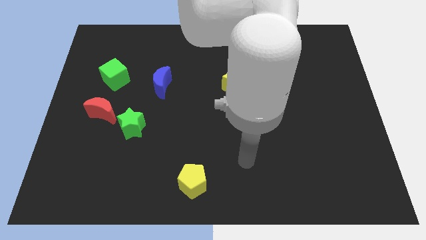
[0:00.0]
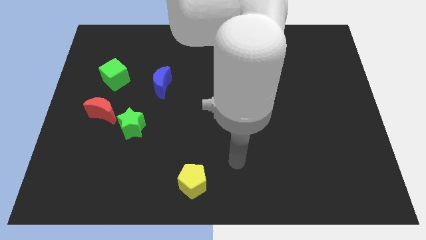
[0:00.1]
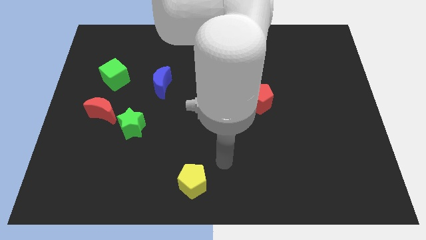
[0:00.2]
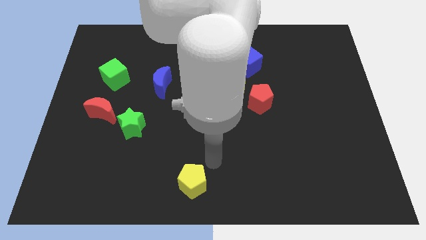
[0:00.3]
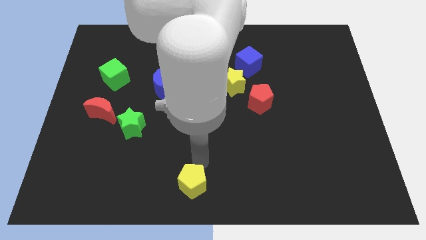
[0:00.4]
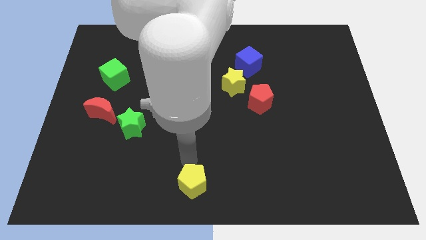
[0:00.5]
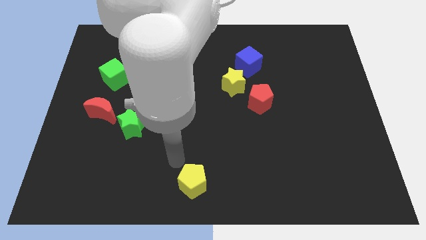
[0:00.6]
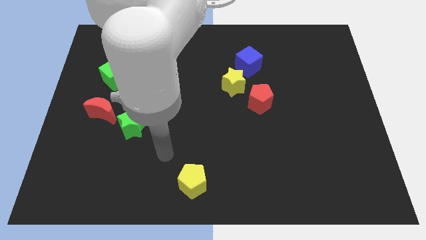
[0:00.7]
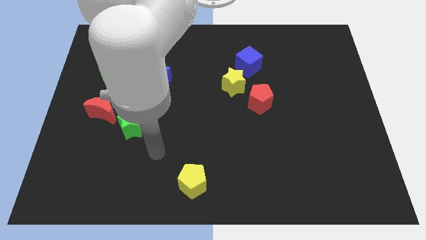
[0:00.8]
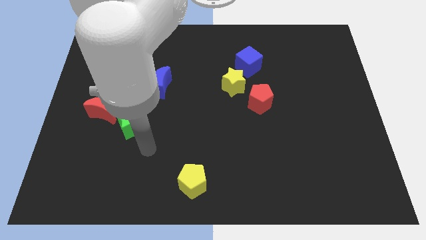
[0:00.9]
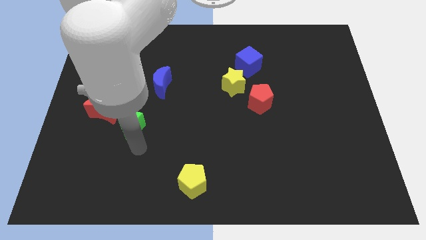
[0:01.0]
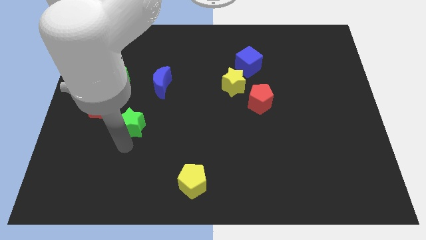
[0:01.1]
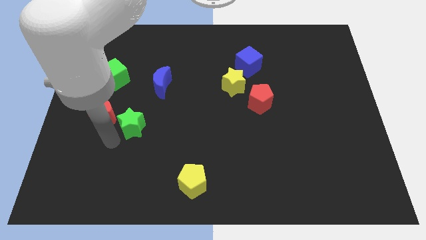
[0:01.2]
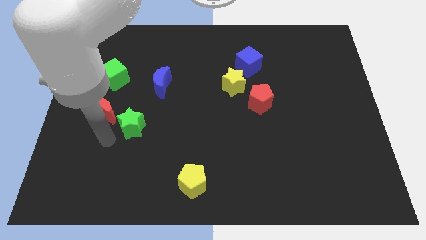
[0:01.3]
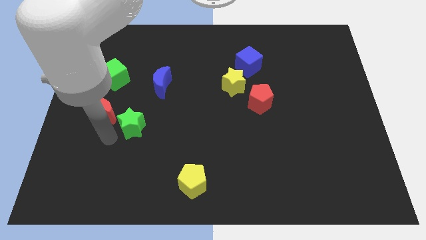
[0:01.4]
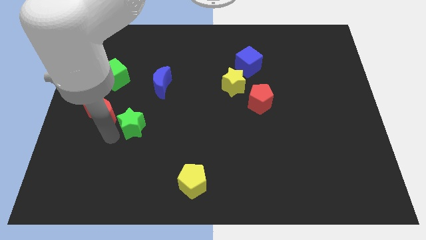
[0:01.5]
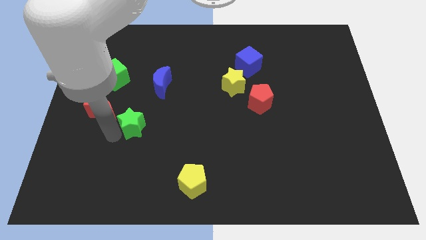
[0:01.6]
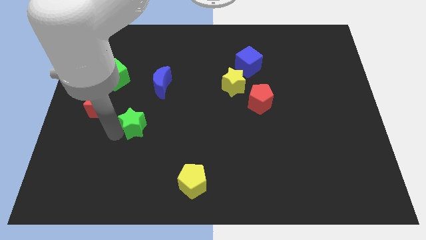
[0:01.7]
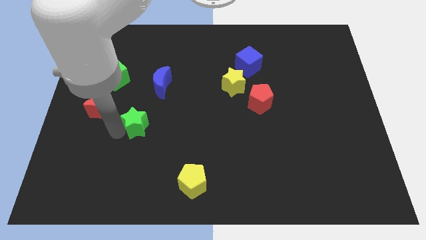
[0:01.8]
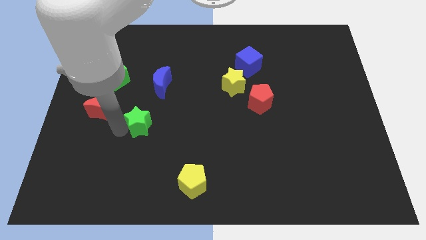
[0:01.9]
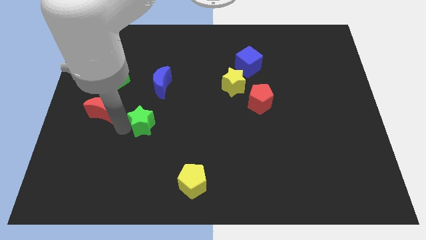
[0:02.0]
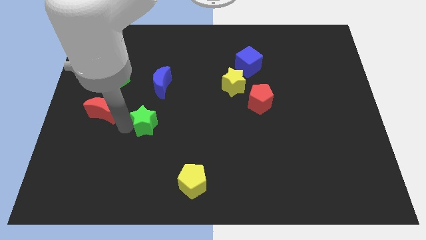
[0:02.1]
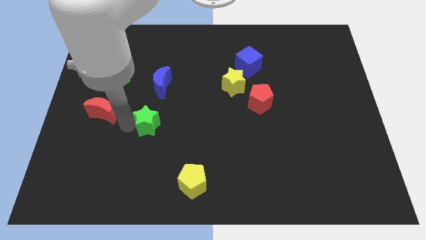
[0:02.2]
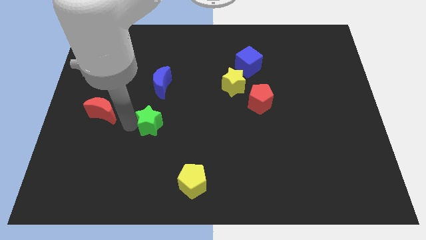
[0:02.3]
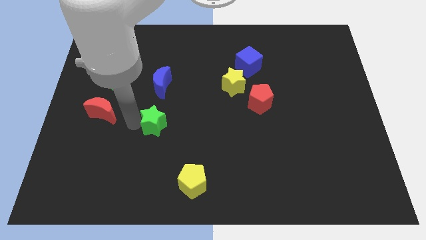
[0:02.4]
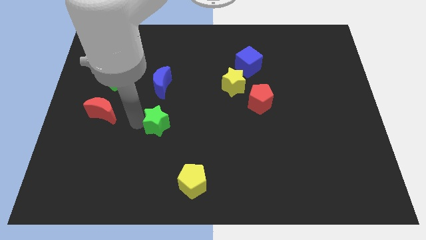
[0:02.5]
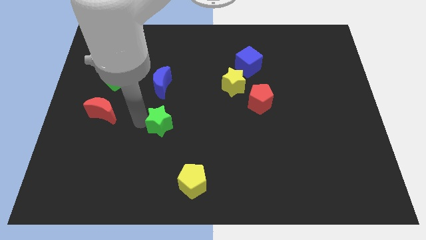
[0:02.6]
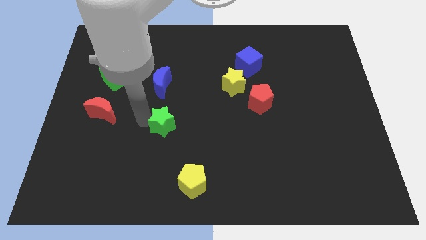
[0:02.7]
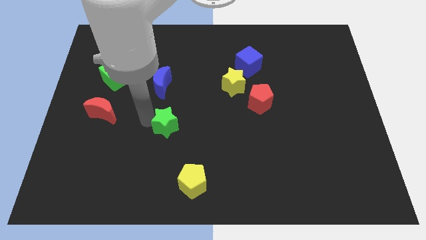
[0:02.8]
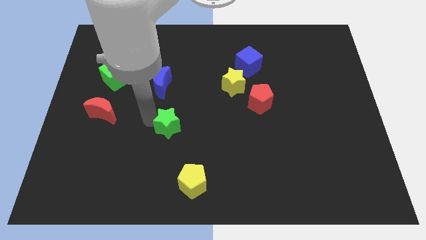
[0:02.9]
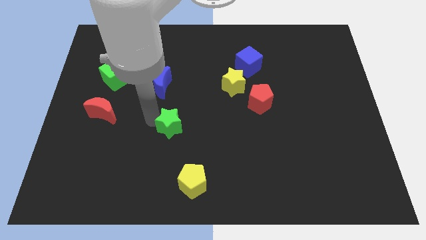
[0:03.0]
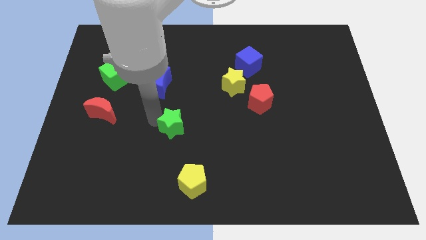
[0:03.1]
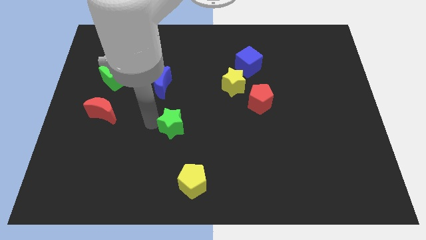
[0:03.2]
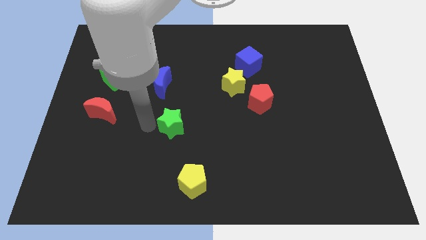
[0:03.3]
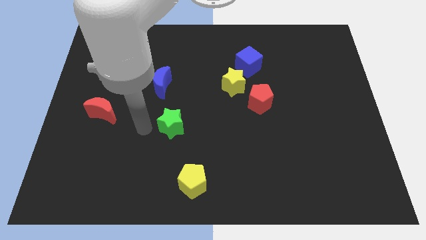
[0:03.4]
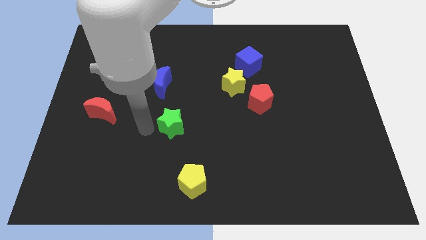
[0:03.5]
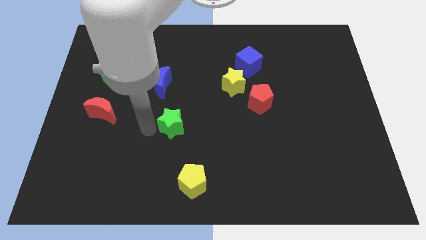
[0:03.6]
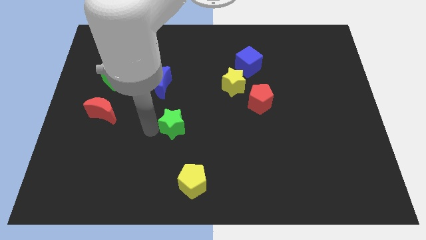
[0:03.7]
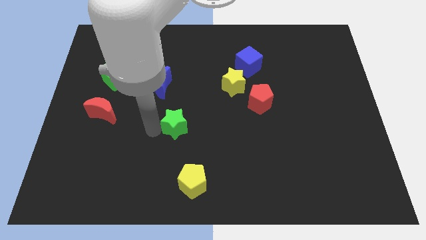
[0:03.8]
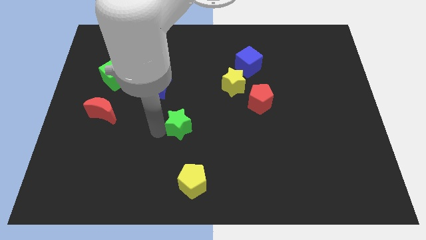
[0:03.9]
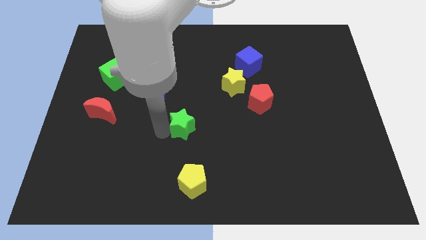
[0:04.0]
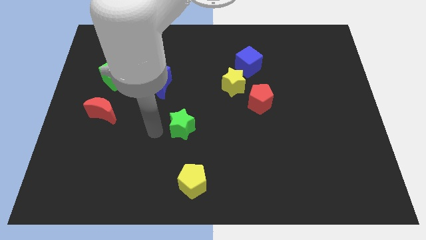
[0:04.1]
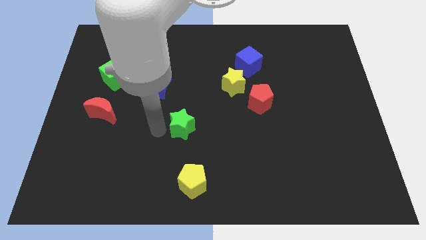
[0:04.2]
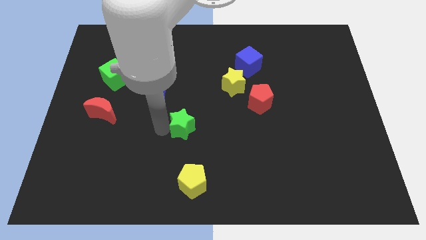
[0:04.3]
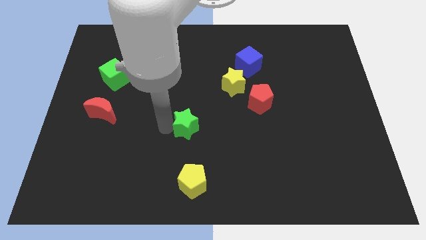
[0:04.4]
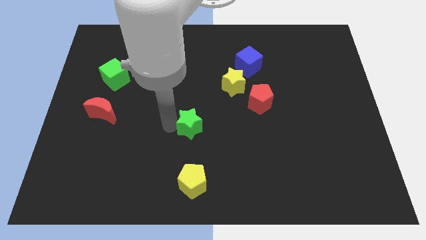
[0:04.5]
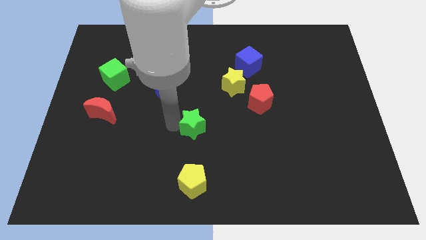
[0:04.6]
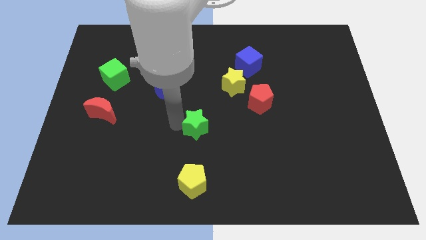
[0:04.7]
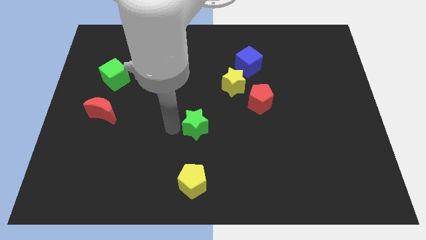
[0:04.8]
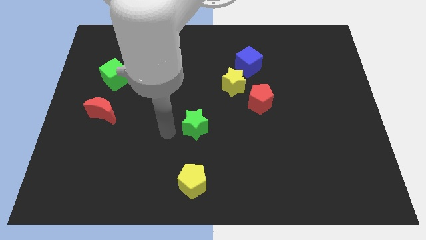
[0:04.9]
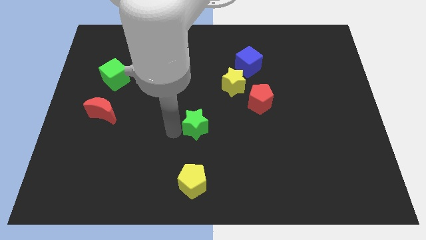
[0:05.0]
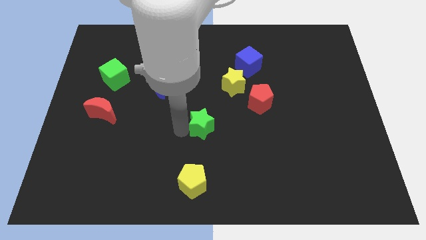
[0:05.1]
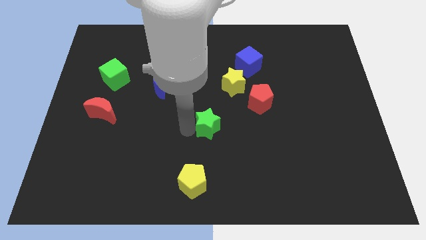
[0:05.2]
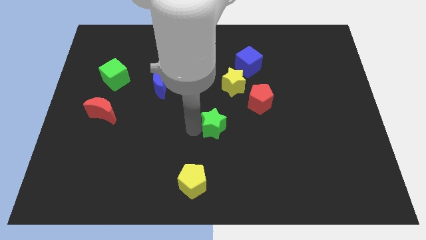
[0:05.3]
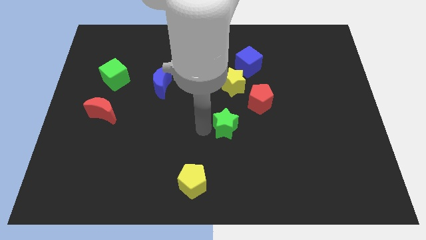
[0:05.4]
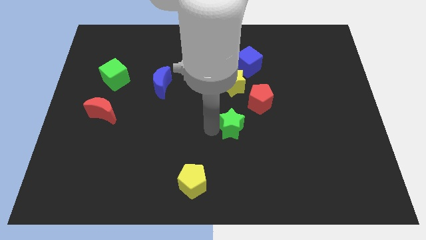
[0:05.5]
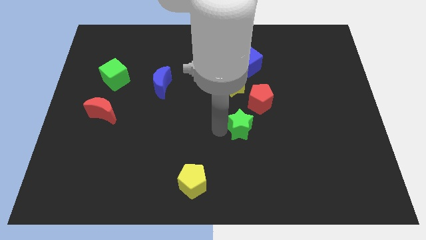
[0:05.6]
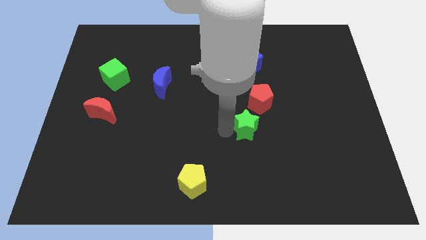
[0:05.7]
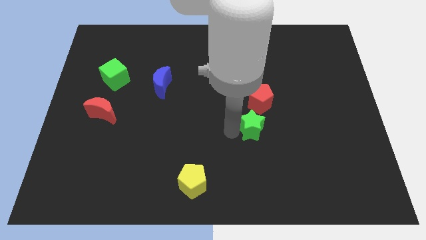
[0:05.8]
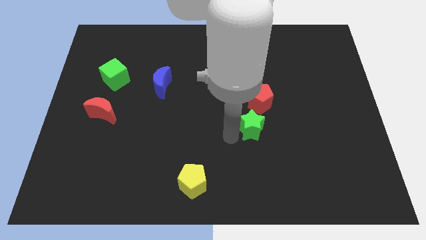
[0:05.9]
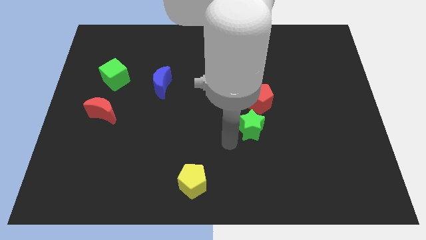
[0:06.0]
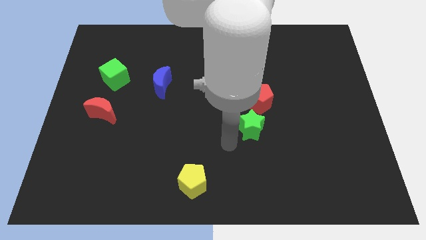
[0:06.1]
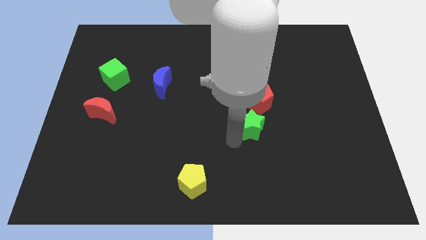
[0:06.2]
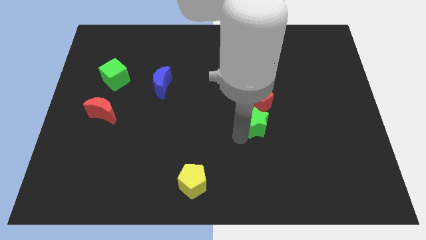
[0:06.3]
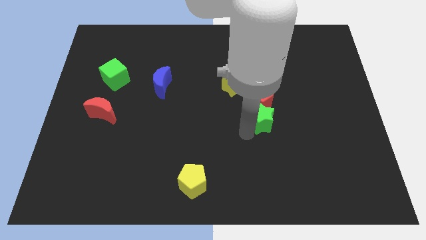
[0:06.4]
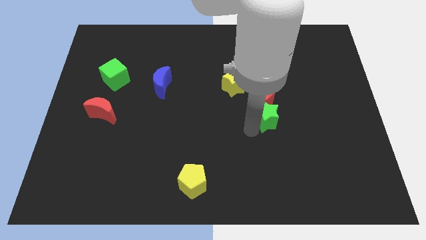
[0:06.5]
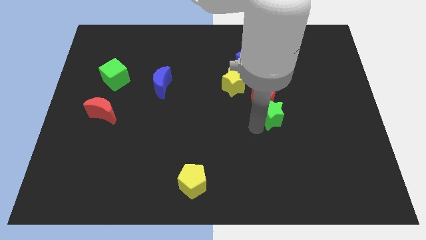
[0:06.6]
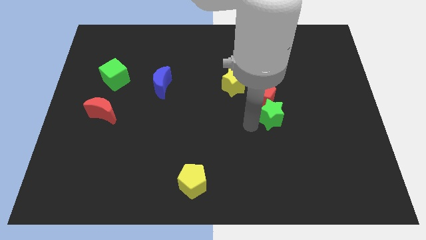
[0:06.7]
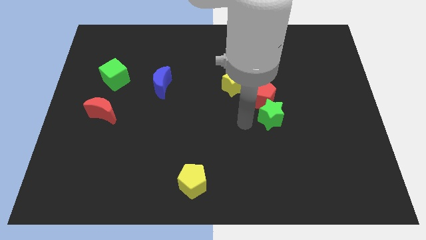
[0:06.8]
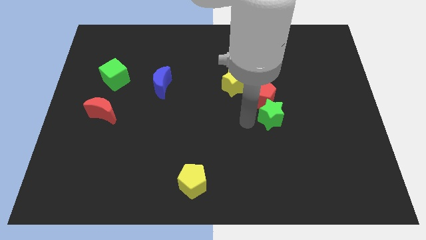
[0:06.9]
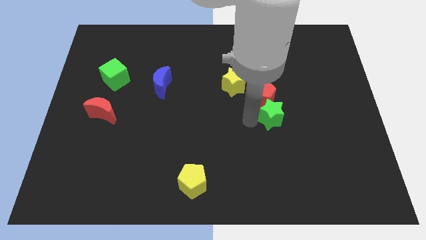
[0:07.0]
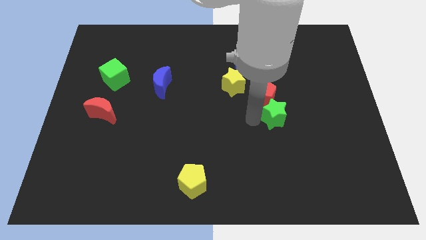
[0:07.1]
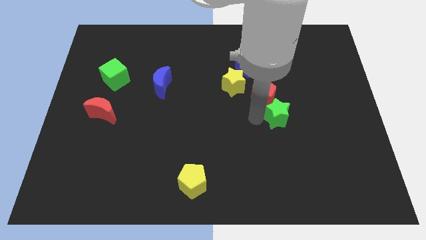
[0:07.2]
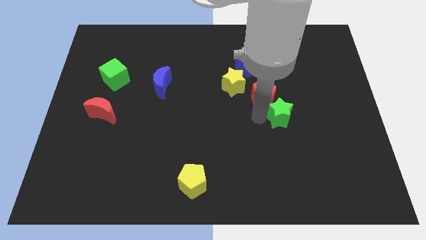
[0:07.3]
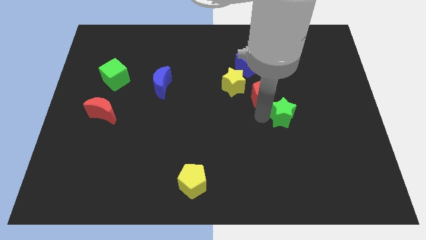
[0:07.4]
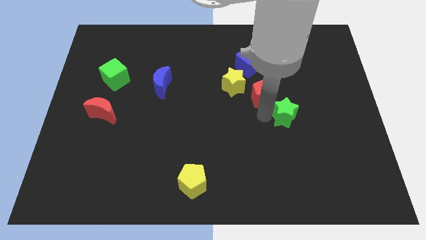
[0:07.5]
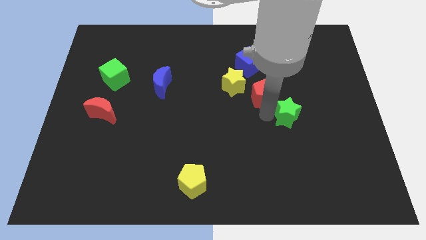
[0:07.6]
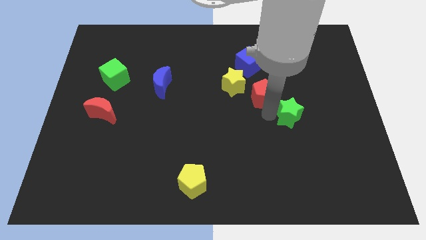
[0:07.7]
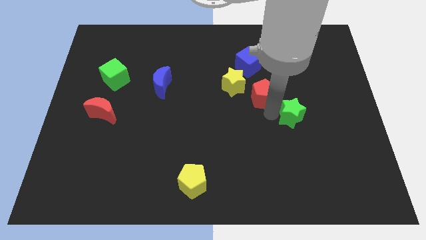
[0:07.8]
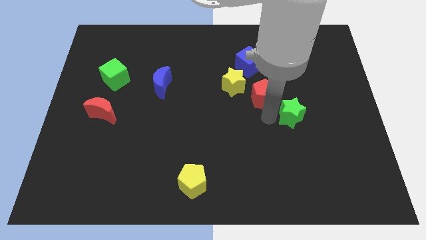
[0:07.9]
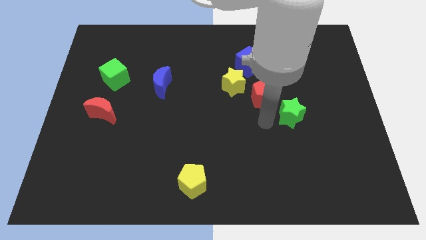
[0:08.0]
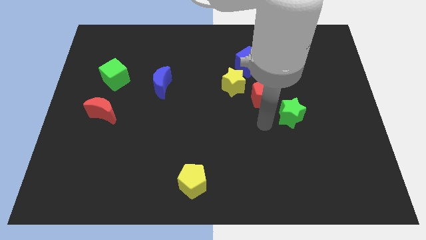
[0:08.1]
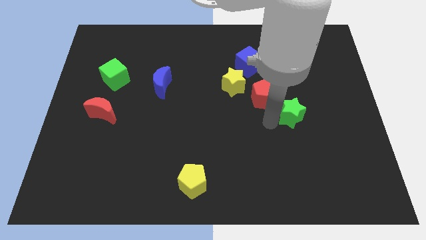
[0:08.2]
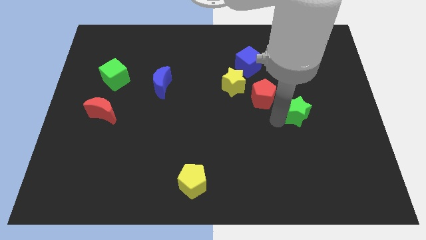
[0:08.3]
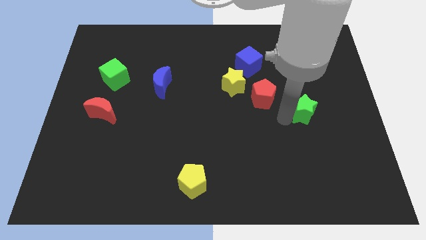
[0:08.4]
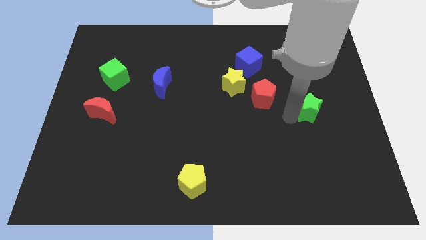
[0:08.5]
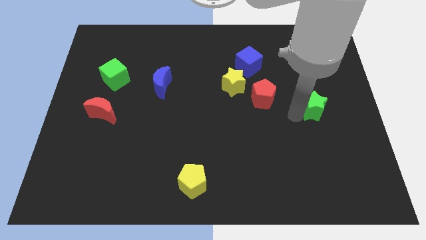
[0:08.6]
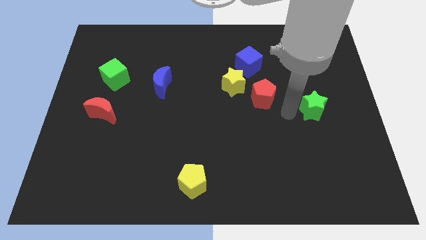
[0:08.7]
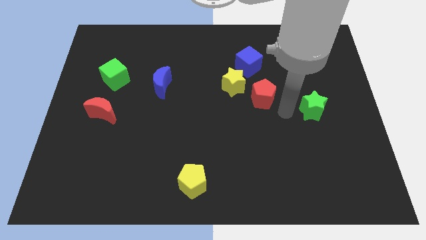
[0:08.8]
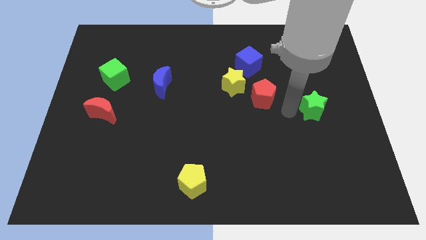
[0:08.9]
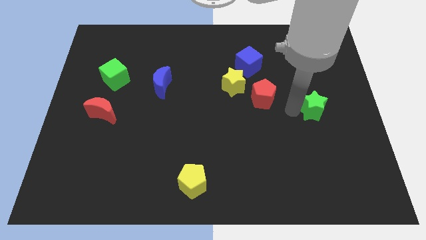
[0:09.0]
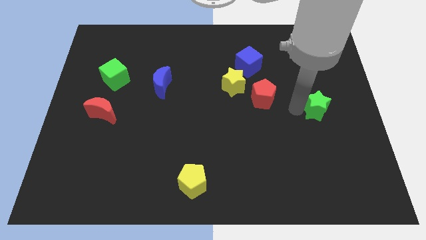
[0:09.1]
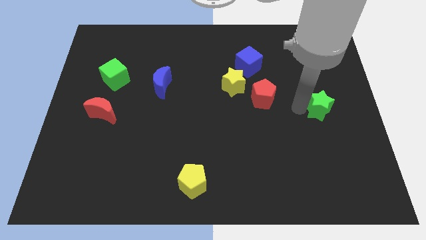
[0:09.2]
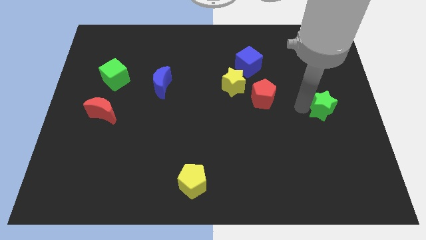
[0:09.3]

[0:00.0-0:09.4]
move the green star to the right side of the board
